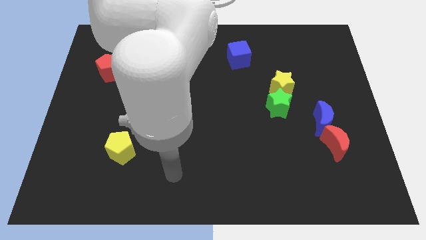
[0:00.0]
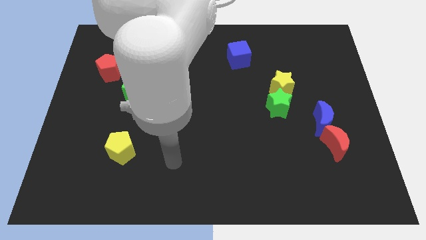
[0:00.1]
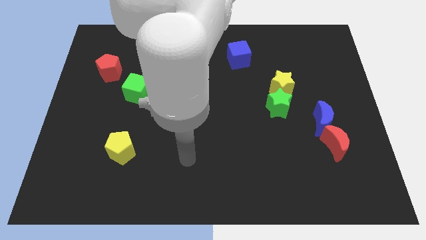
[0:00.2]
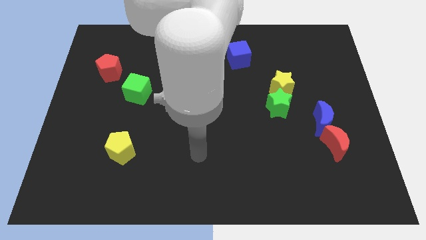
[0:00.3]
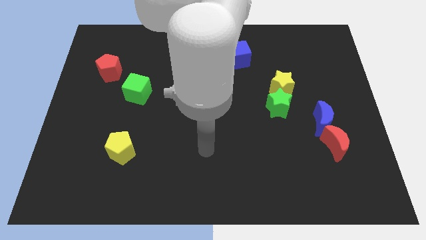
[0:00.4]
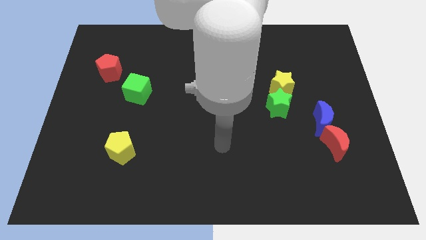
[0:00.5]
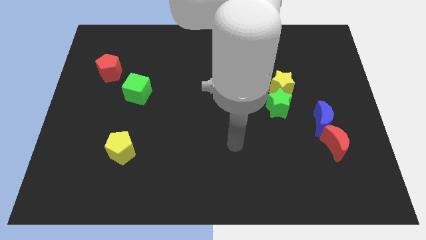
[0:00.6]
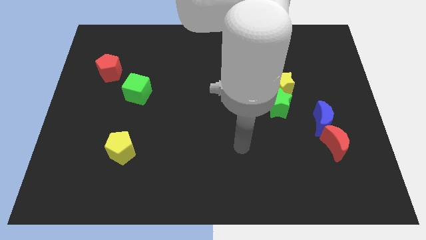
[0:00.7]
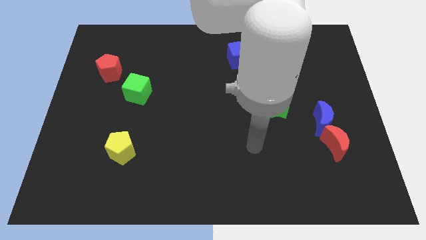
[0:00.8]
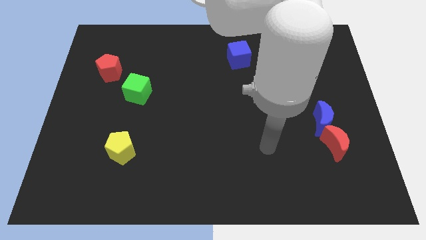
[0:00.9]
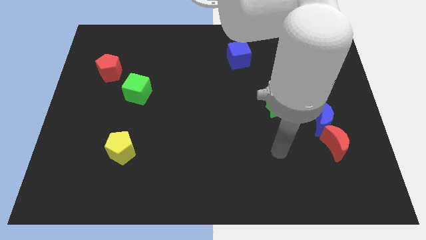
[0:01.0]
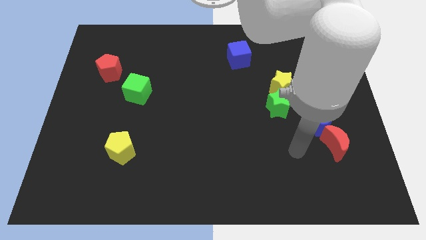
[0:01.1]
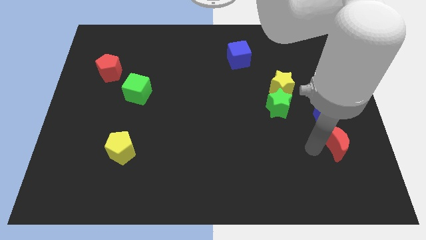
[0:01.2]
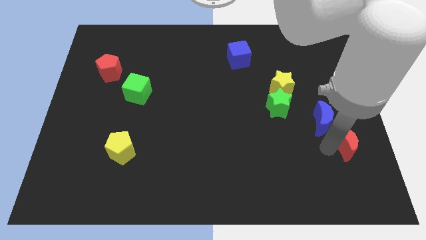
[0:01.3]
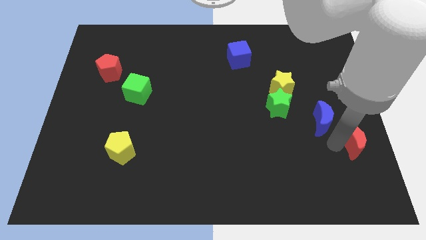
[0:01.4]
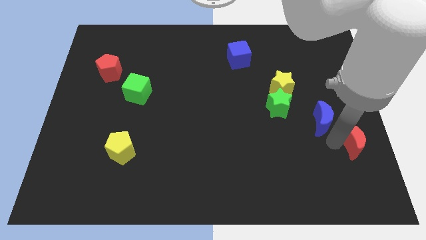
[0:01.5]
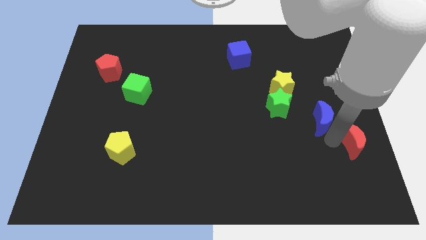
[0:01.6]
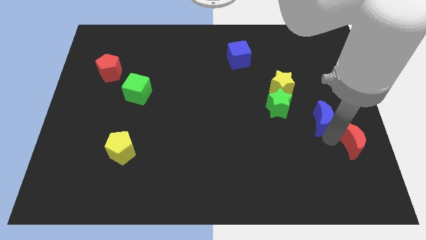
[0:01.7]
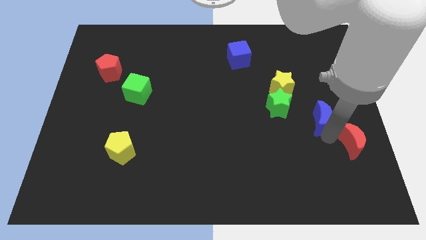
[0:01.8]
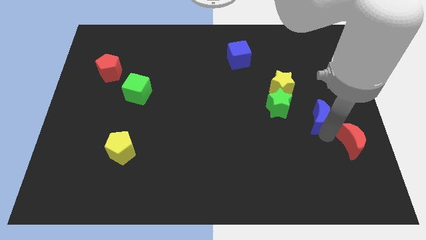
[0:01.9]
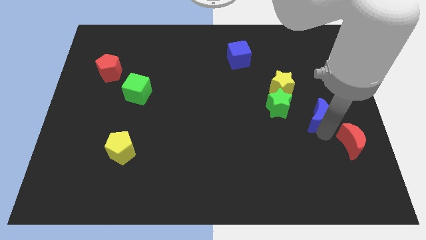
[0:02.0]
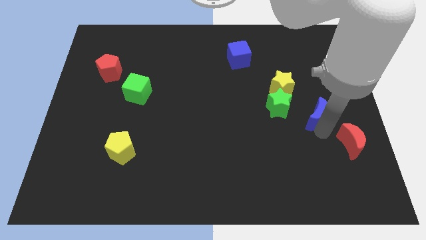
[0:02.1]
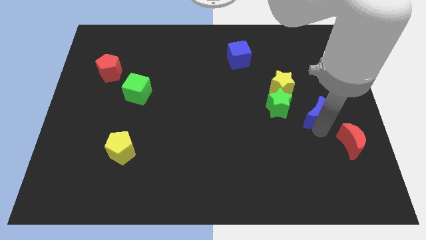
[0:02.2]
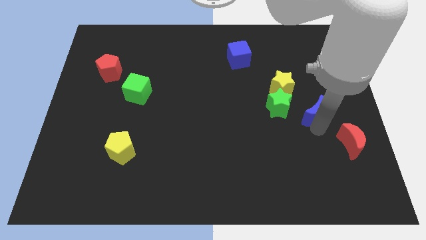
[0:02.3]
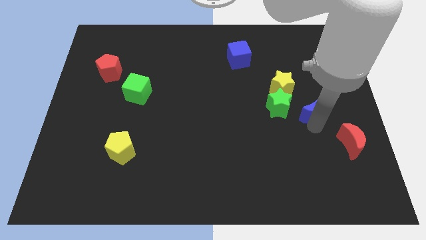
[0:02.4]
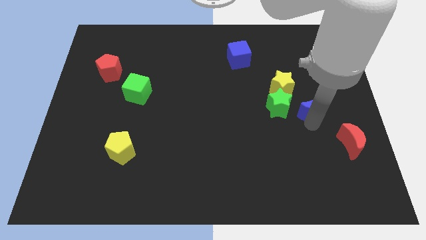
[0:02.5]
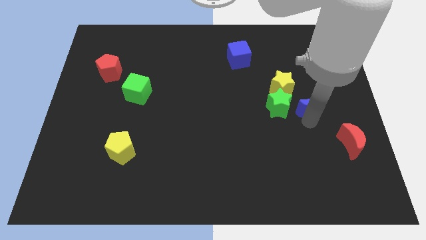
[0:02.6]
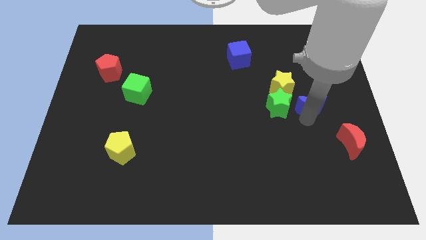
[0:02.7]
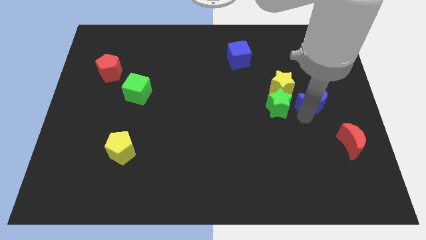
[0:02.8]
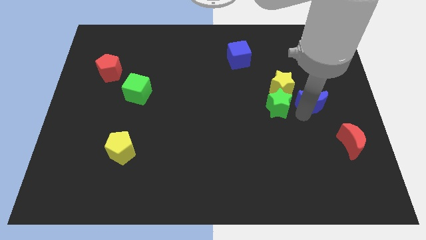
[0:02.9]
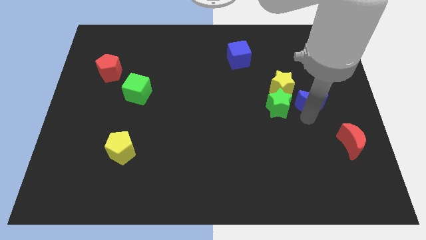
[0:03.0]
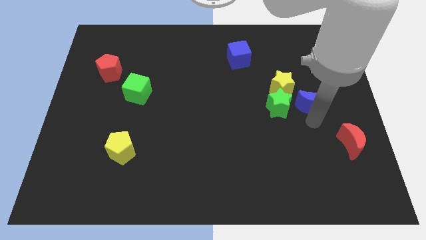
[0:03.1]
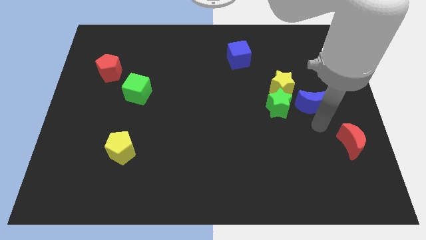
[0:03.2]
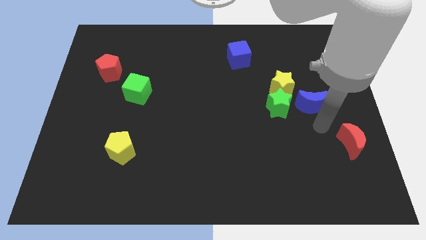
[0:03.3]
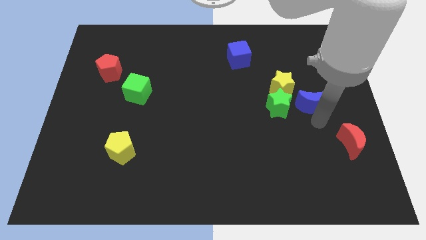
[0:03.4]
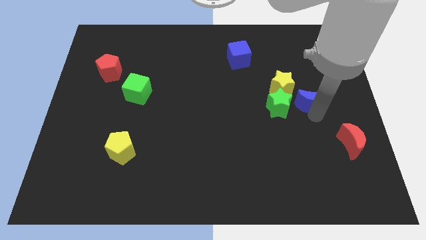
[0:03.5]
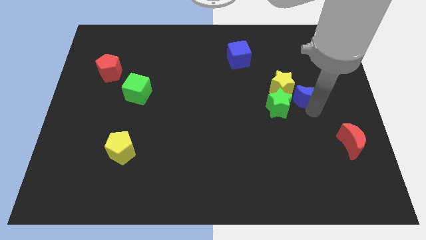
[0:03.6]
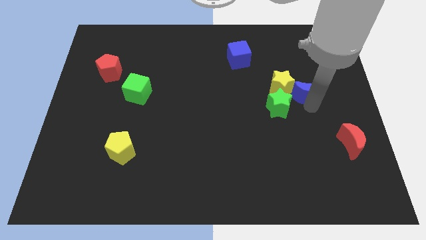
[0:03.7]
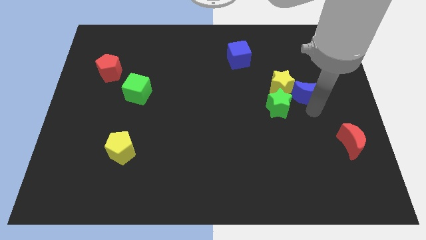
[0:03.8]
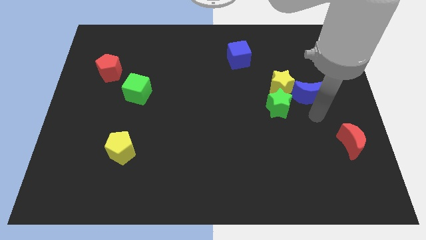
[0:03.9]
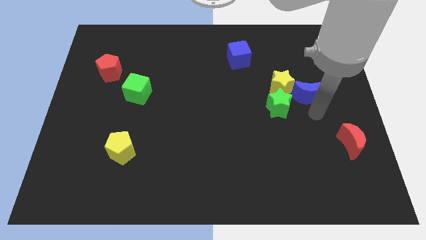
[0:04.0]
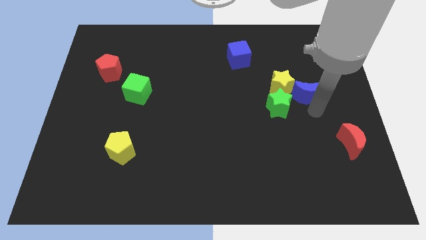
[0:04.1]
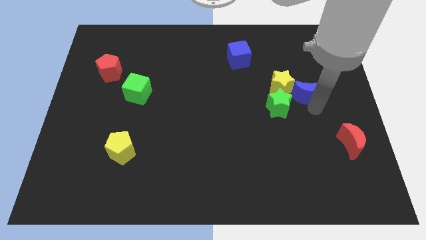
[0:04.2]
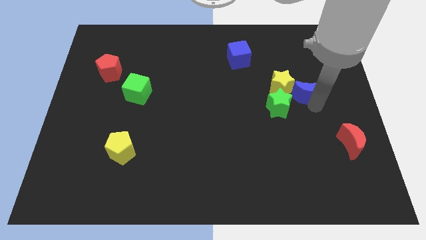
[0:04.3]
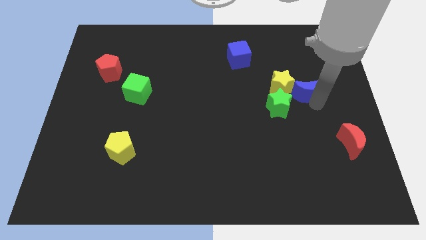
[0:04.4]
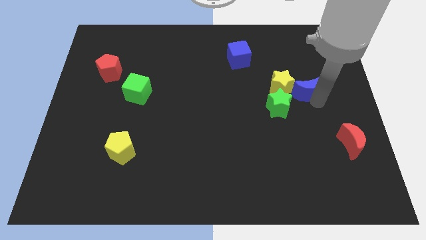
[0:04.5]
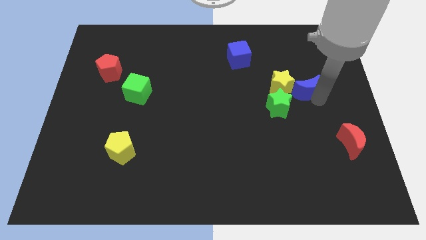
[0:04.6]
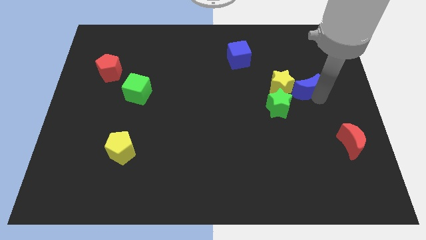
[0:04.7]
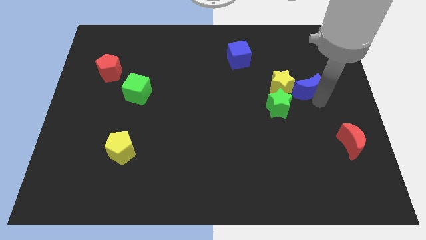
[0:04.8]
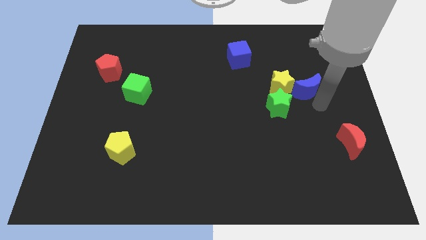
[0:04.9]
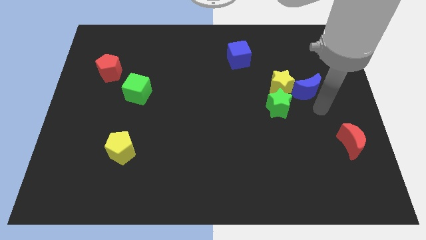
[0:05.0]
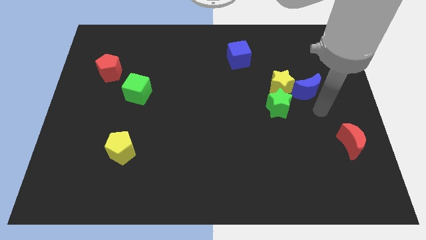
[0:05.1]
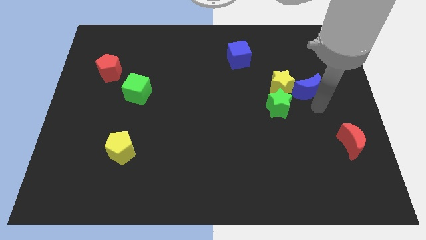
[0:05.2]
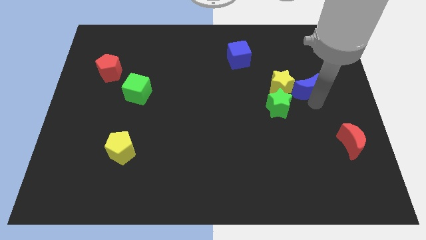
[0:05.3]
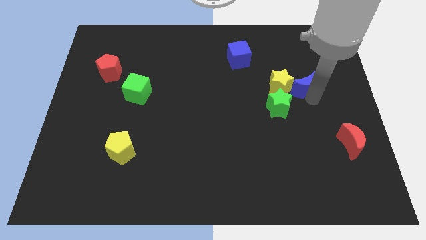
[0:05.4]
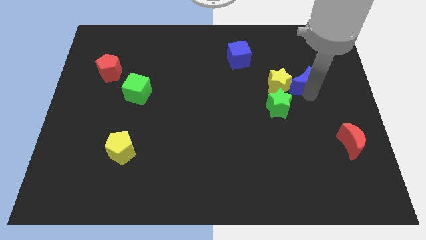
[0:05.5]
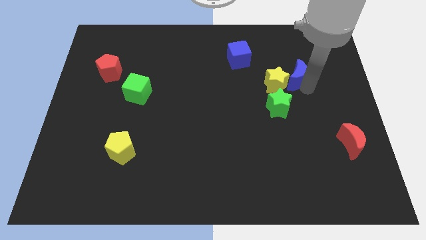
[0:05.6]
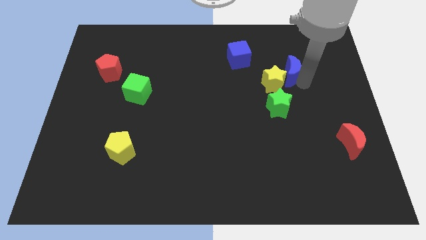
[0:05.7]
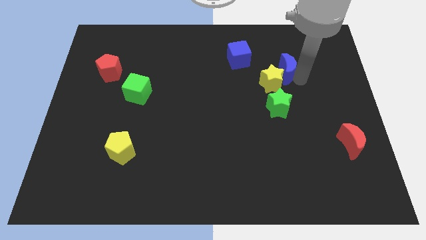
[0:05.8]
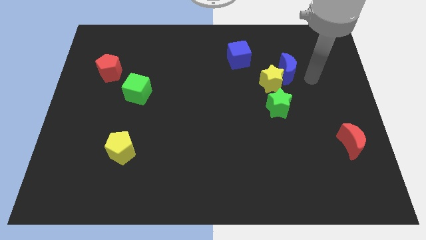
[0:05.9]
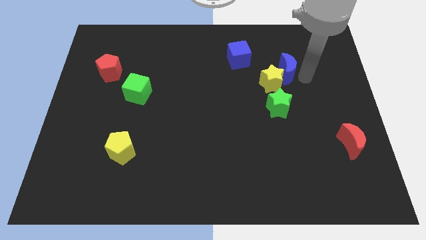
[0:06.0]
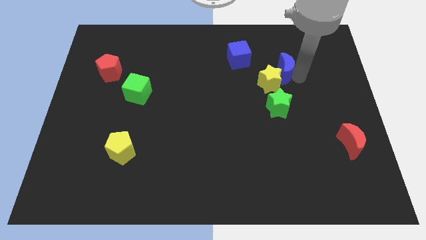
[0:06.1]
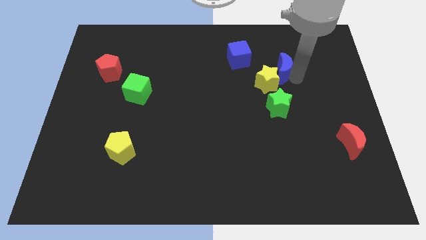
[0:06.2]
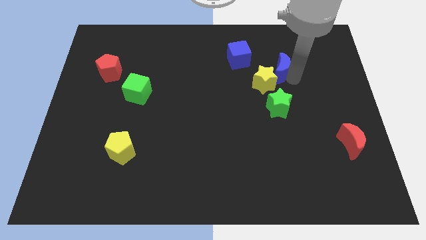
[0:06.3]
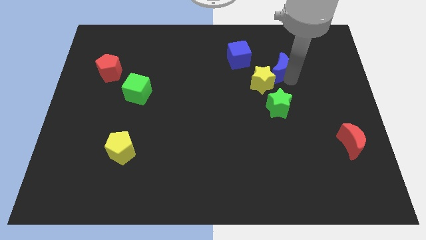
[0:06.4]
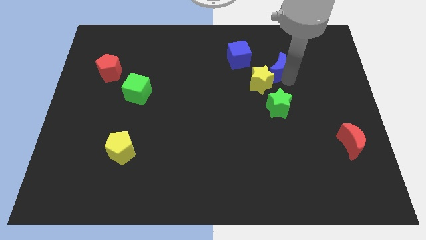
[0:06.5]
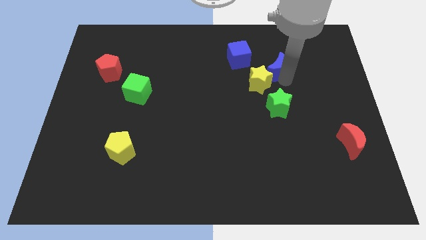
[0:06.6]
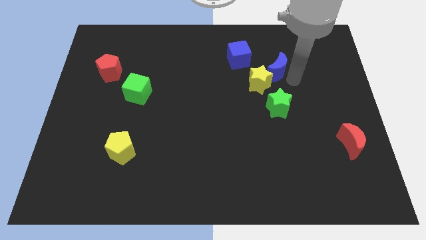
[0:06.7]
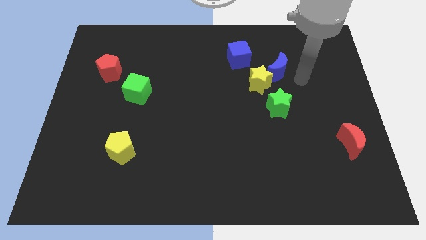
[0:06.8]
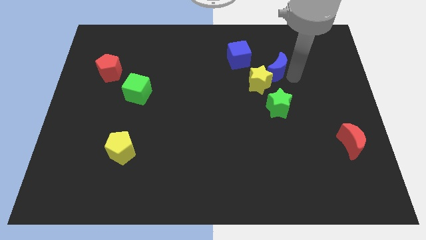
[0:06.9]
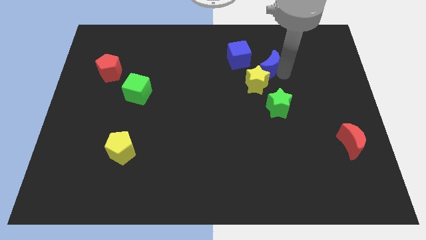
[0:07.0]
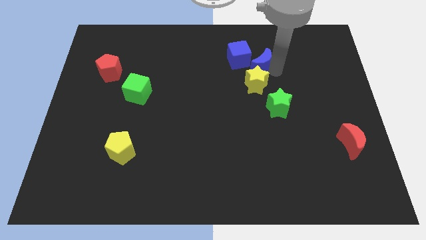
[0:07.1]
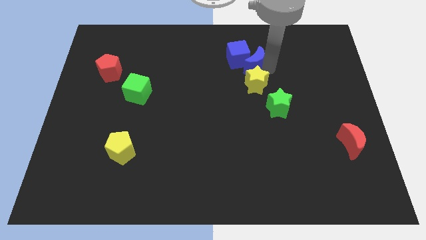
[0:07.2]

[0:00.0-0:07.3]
move the blue moon close to the blue cube

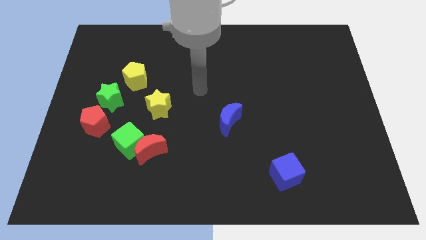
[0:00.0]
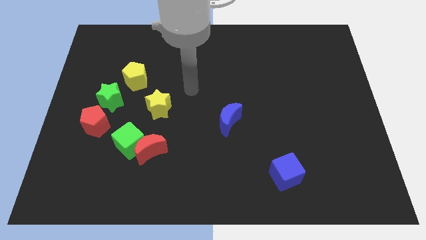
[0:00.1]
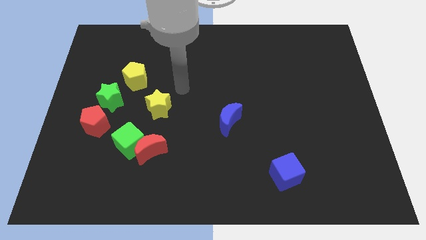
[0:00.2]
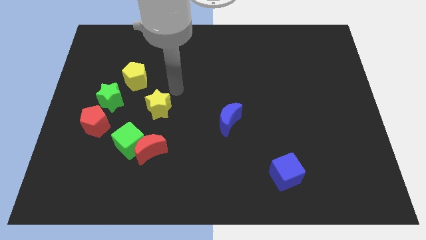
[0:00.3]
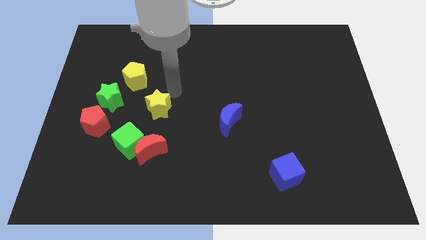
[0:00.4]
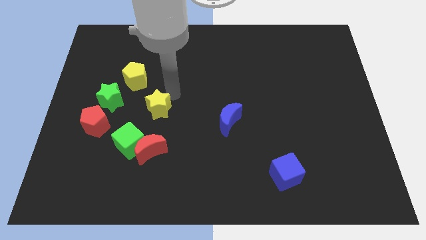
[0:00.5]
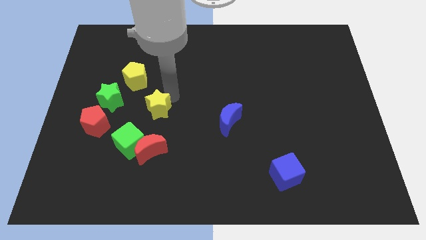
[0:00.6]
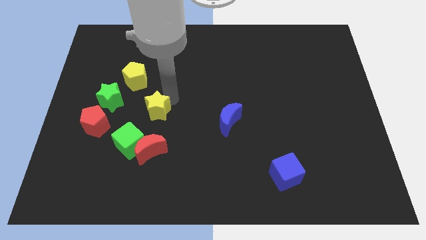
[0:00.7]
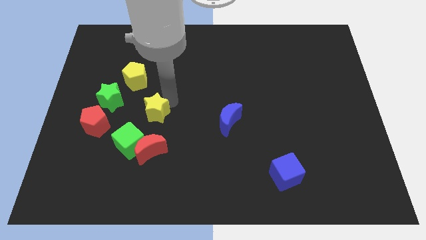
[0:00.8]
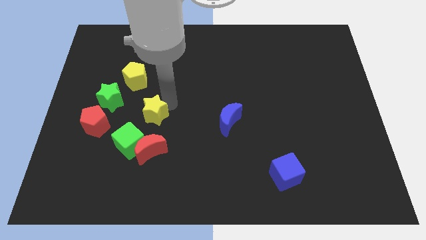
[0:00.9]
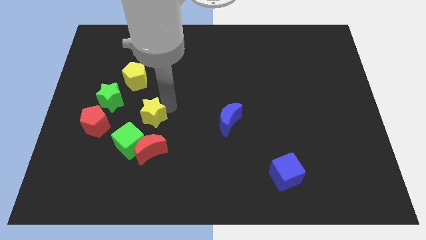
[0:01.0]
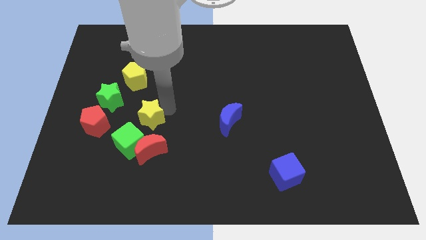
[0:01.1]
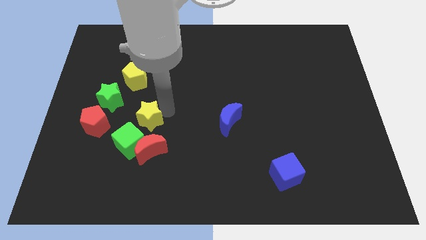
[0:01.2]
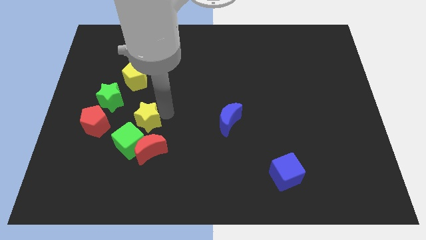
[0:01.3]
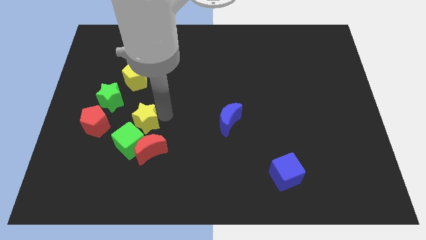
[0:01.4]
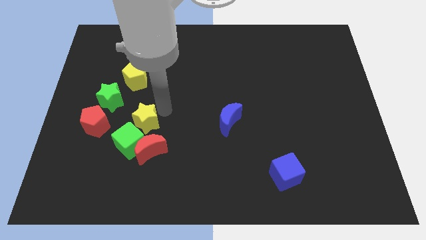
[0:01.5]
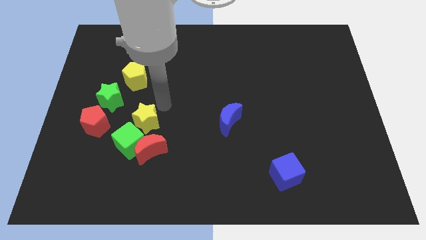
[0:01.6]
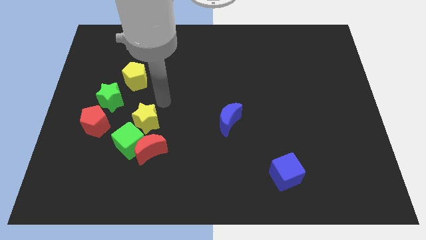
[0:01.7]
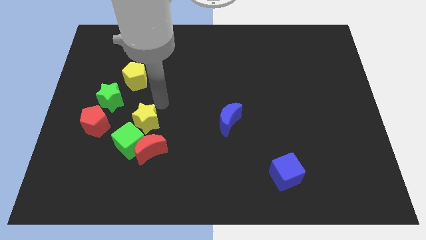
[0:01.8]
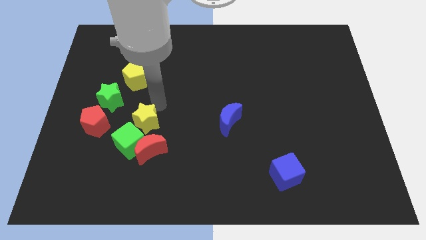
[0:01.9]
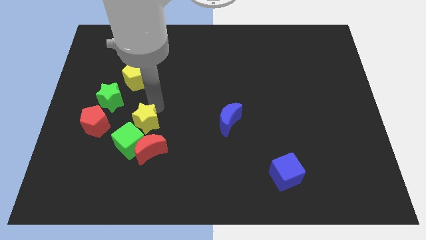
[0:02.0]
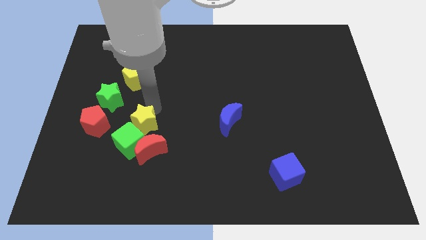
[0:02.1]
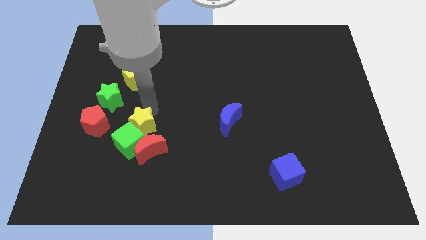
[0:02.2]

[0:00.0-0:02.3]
push the yellow star towards the green cube
